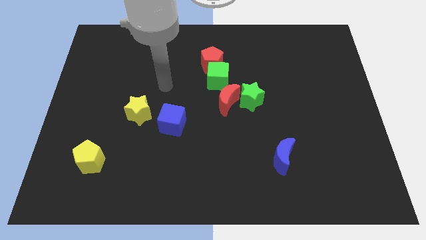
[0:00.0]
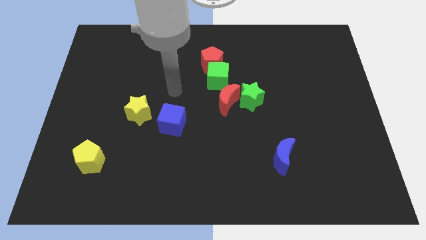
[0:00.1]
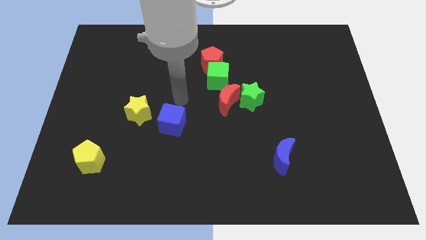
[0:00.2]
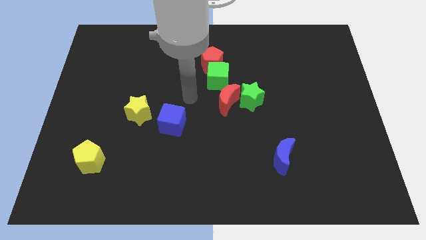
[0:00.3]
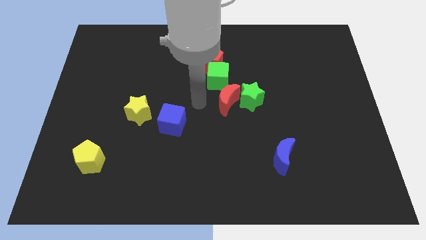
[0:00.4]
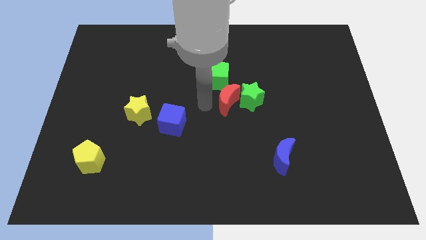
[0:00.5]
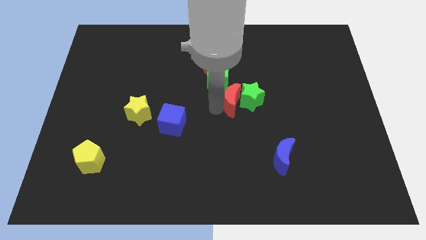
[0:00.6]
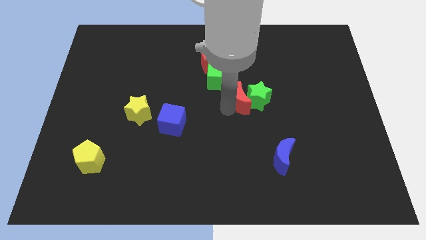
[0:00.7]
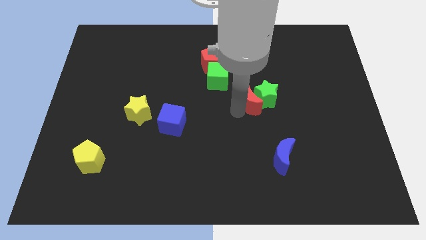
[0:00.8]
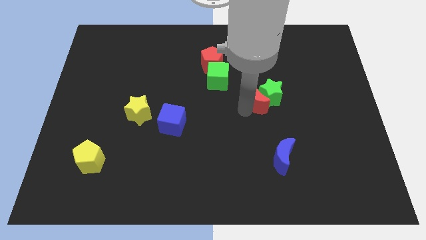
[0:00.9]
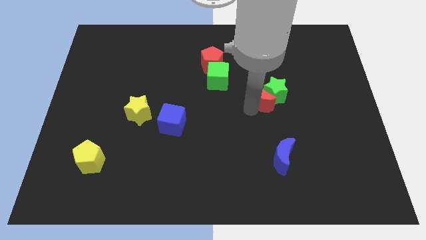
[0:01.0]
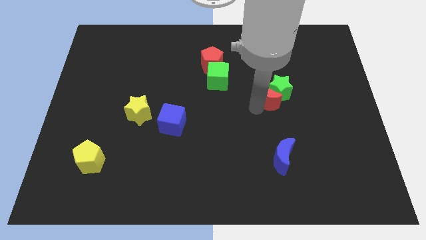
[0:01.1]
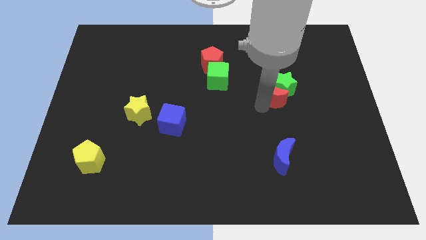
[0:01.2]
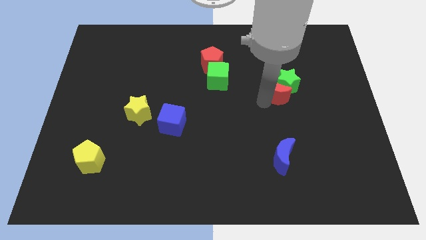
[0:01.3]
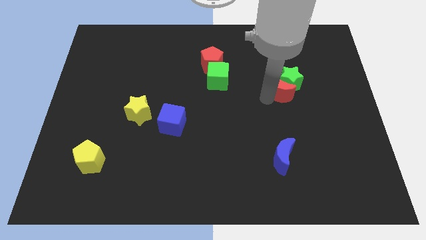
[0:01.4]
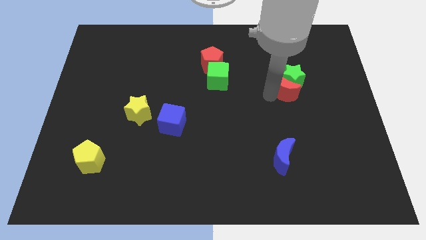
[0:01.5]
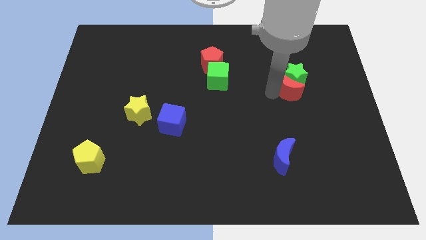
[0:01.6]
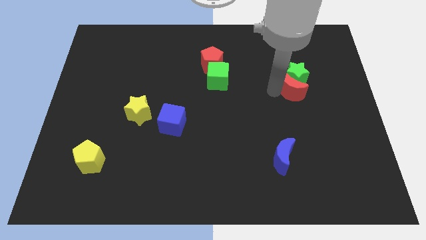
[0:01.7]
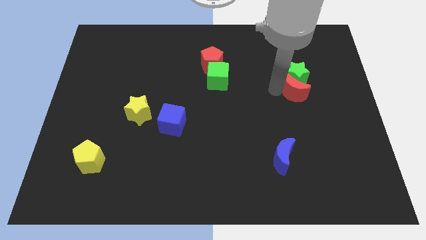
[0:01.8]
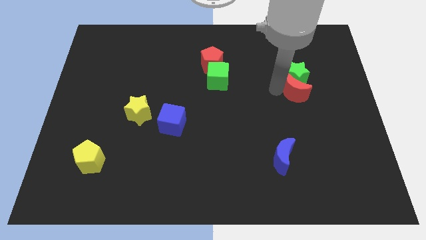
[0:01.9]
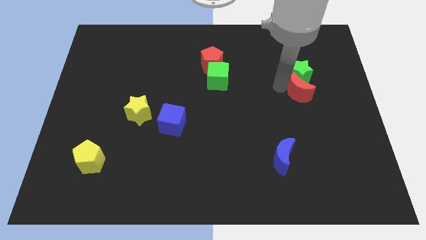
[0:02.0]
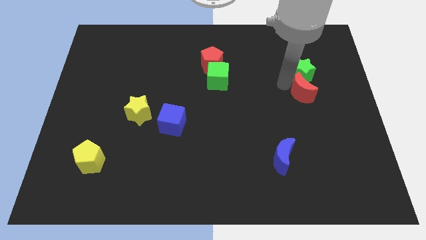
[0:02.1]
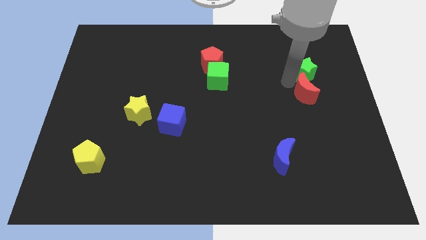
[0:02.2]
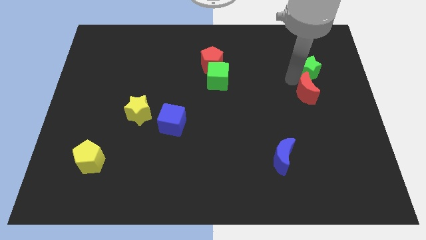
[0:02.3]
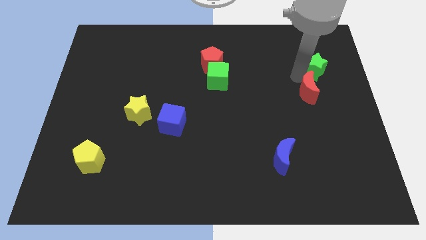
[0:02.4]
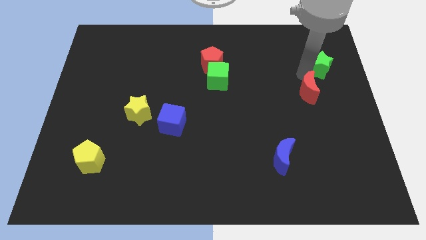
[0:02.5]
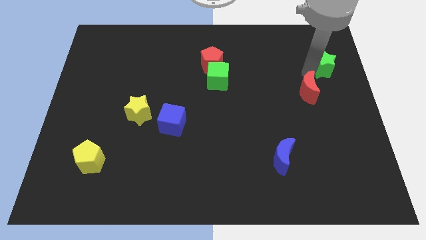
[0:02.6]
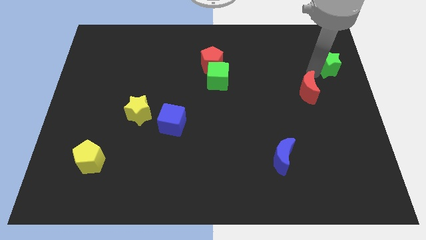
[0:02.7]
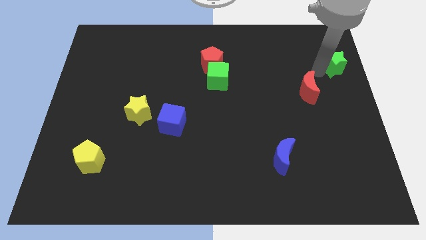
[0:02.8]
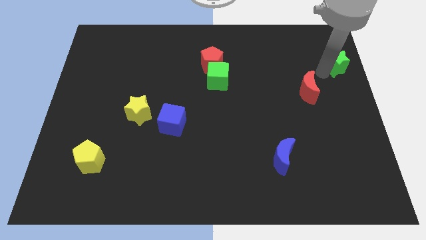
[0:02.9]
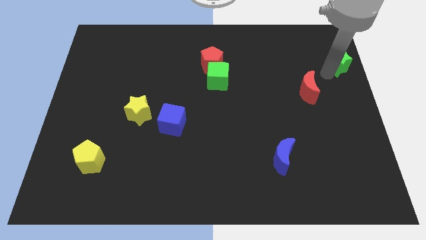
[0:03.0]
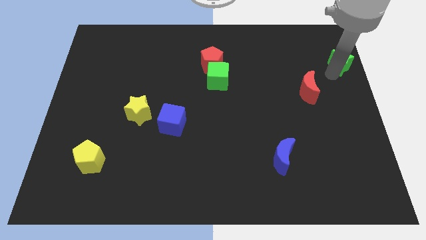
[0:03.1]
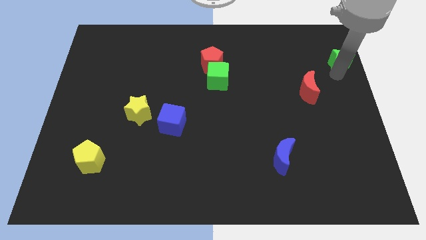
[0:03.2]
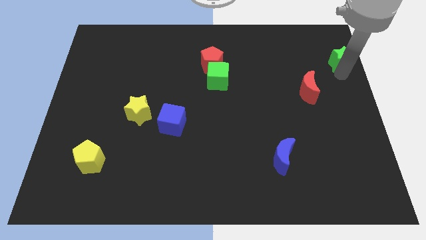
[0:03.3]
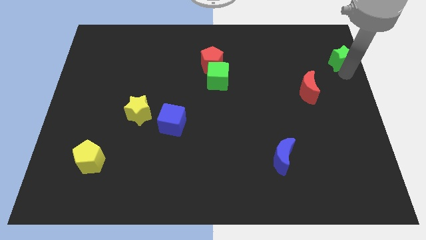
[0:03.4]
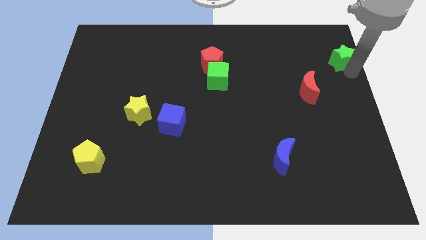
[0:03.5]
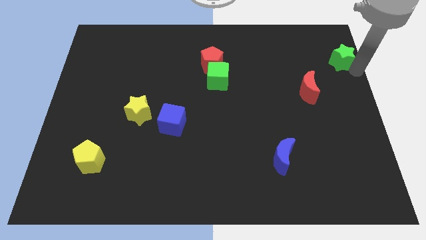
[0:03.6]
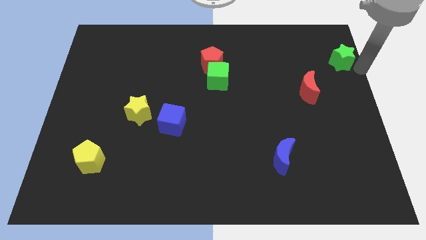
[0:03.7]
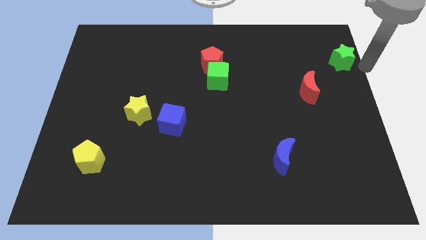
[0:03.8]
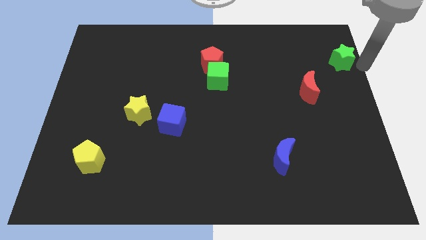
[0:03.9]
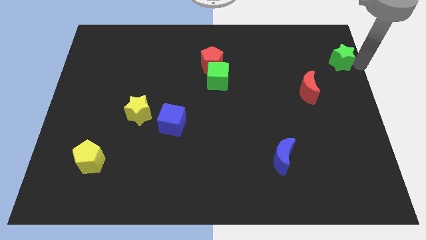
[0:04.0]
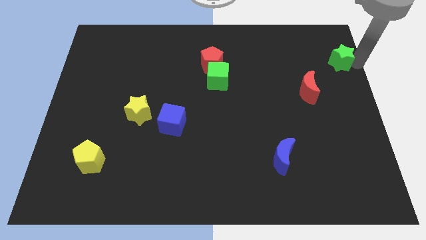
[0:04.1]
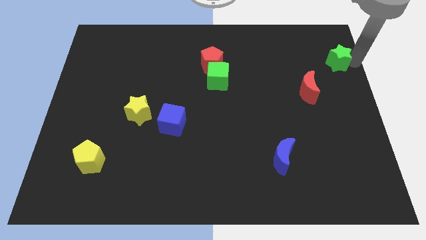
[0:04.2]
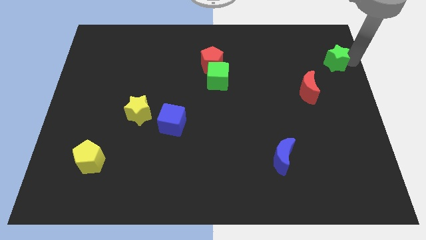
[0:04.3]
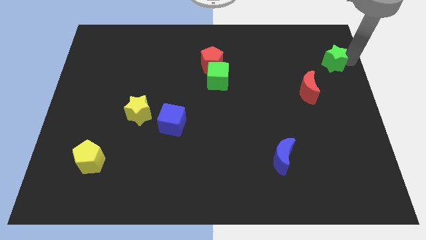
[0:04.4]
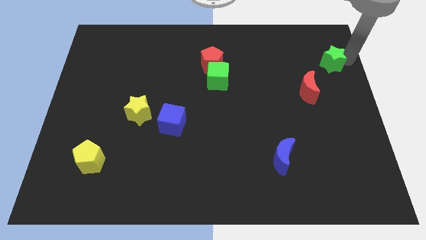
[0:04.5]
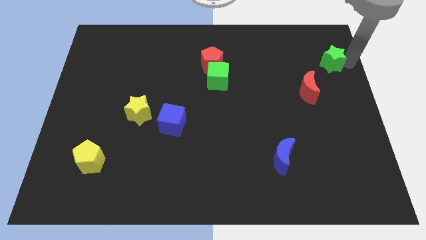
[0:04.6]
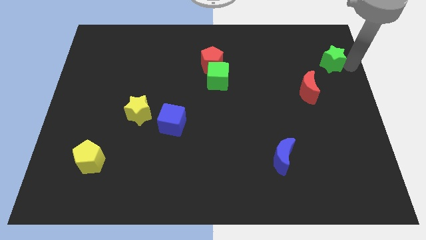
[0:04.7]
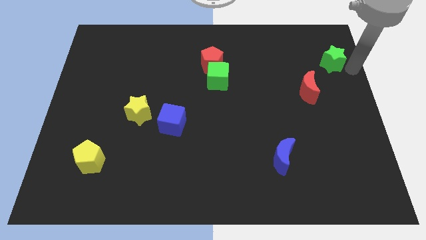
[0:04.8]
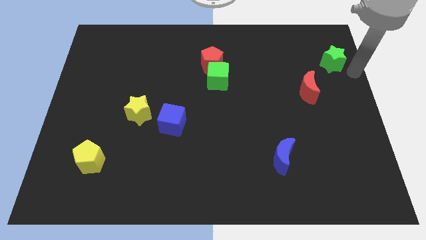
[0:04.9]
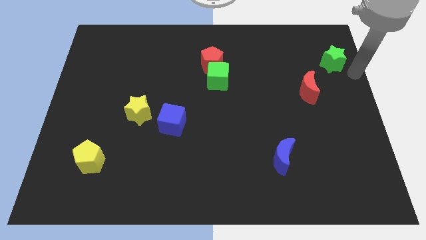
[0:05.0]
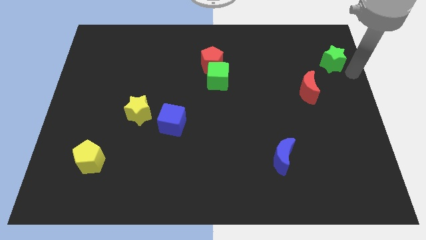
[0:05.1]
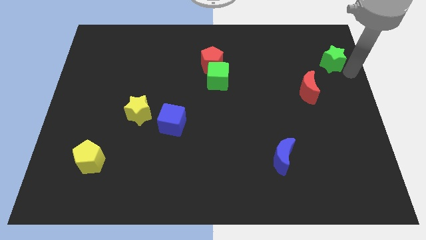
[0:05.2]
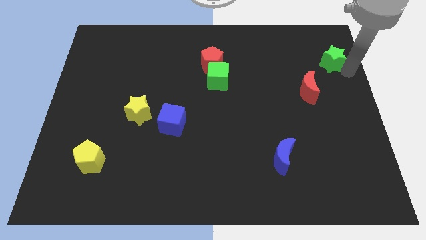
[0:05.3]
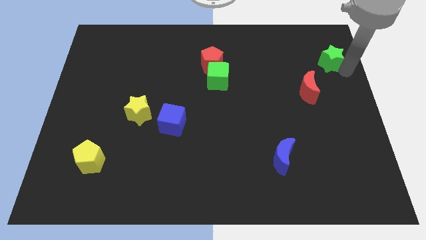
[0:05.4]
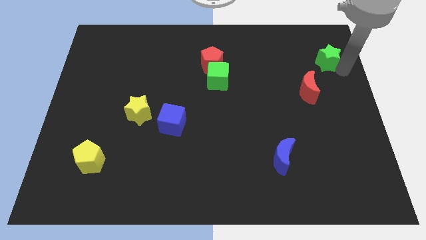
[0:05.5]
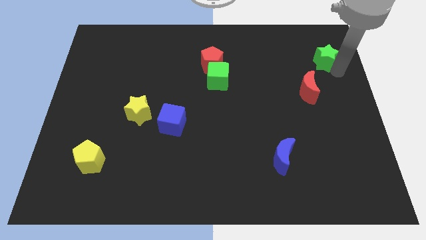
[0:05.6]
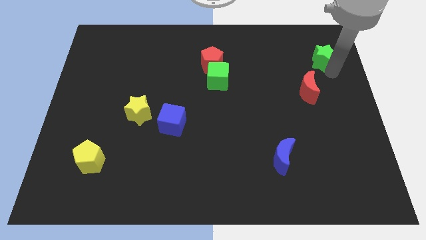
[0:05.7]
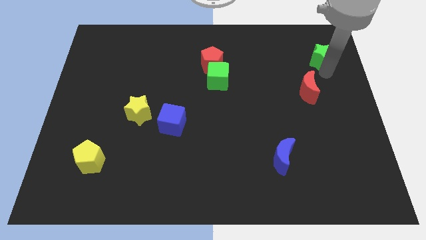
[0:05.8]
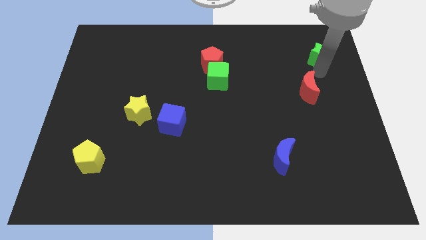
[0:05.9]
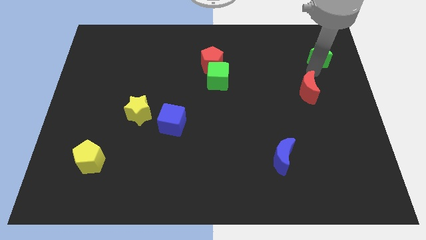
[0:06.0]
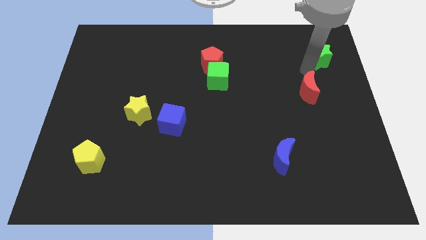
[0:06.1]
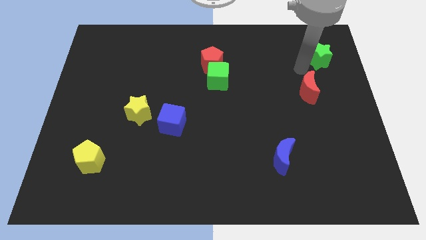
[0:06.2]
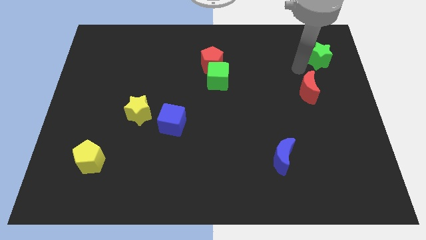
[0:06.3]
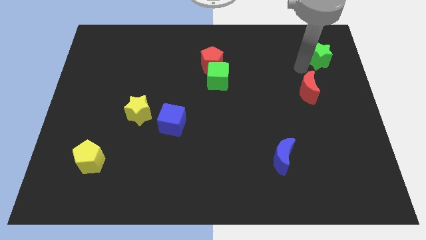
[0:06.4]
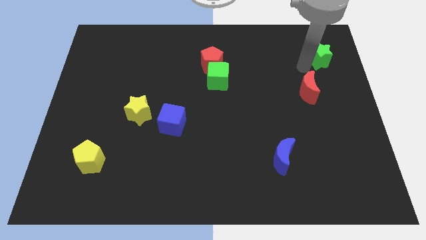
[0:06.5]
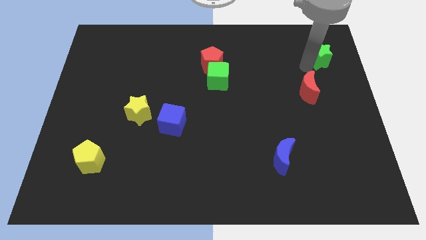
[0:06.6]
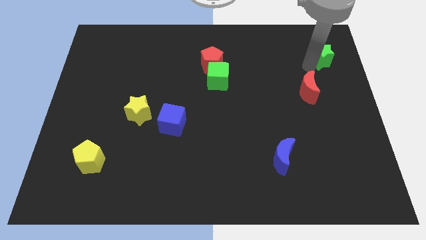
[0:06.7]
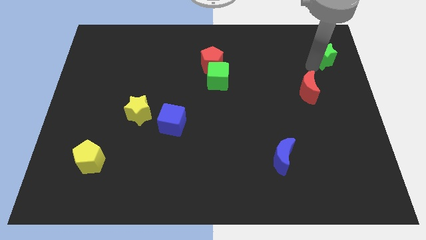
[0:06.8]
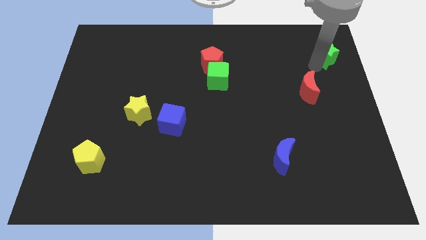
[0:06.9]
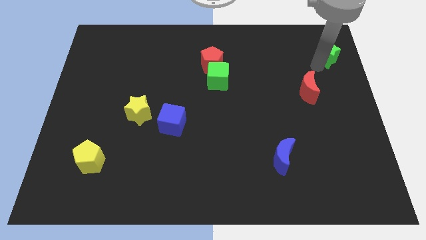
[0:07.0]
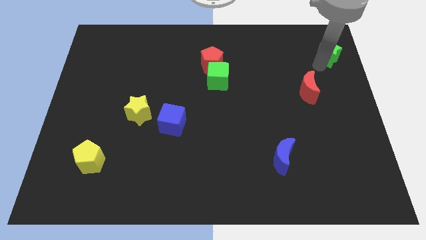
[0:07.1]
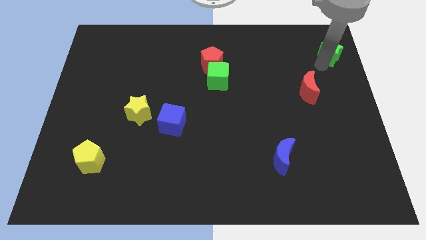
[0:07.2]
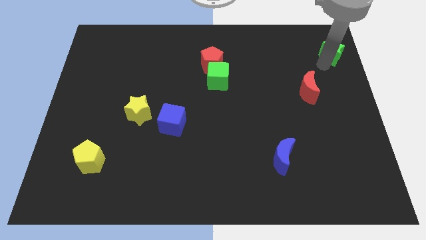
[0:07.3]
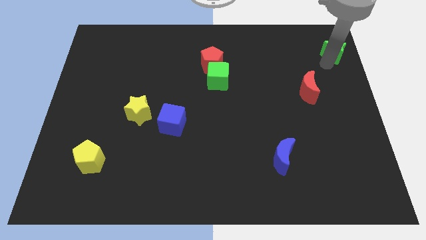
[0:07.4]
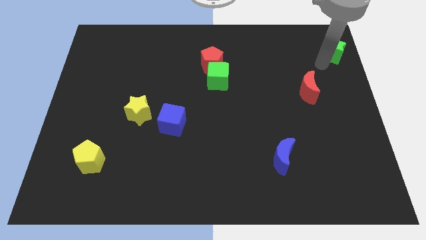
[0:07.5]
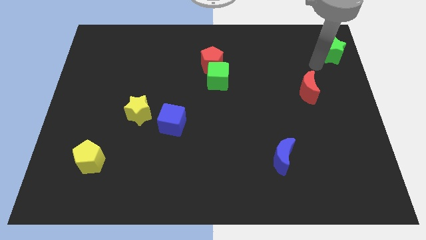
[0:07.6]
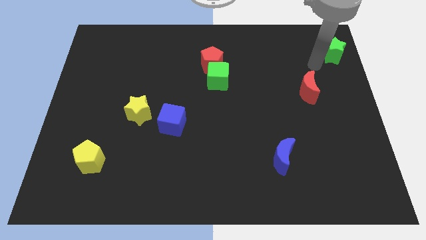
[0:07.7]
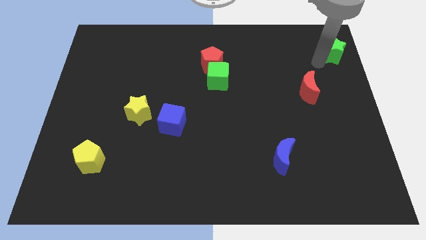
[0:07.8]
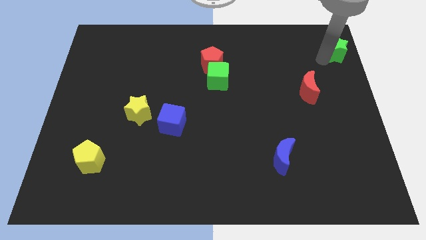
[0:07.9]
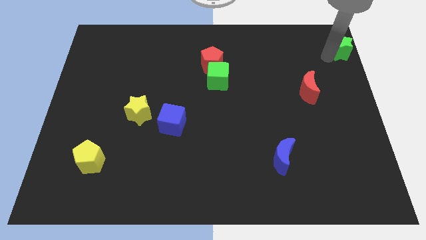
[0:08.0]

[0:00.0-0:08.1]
push the green star to the top right of the board
